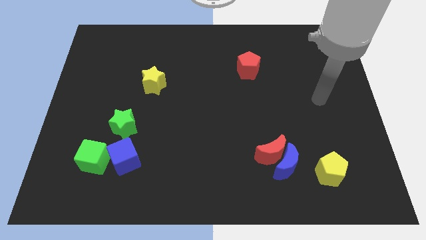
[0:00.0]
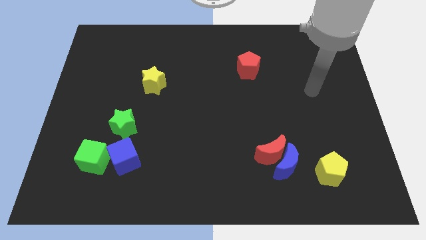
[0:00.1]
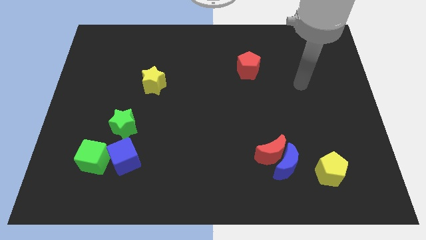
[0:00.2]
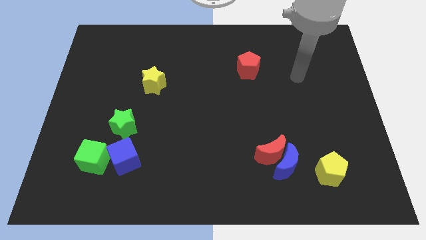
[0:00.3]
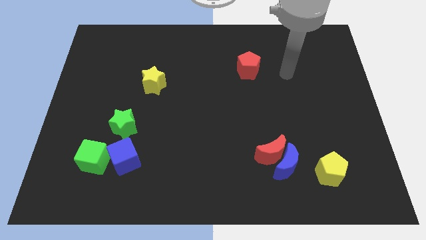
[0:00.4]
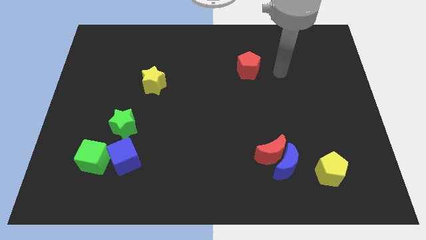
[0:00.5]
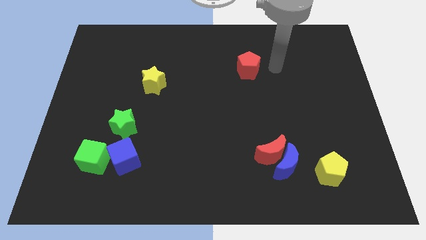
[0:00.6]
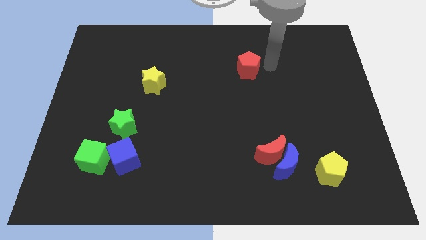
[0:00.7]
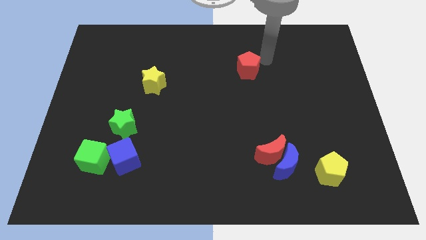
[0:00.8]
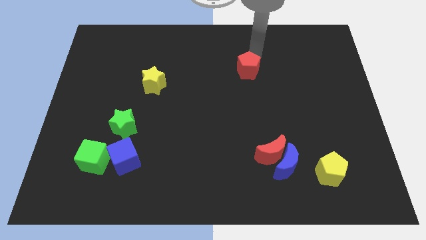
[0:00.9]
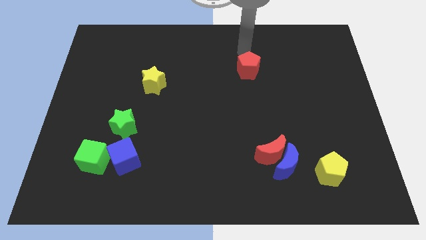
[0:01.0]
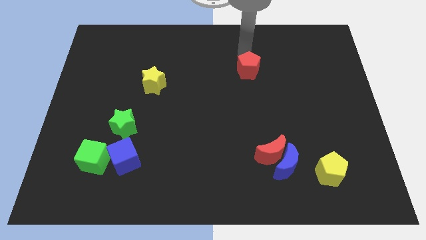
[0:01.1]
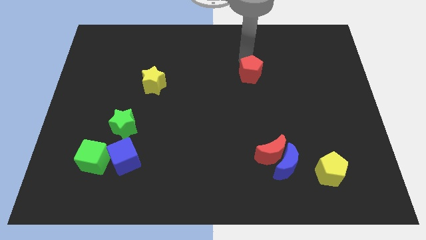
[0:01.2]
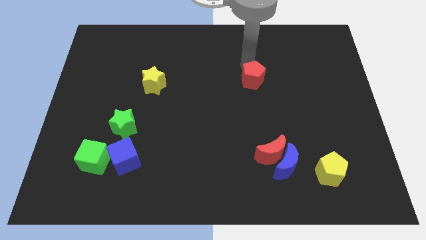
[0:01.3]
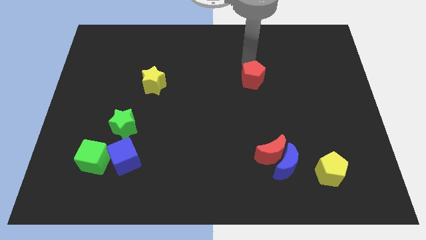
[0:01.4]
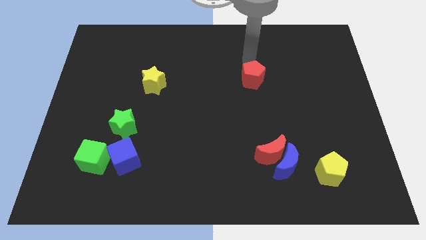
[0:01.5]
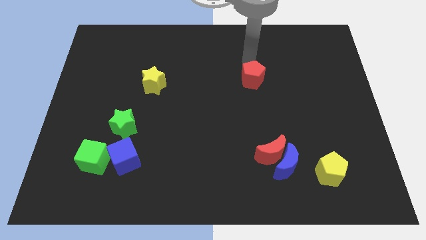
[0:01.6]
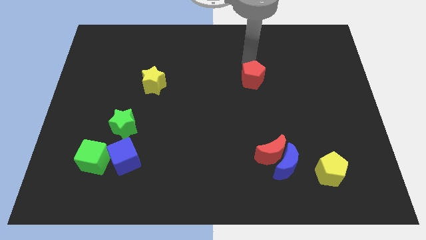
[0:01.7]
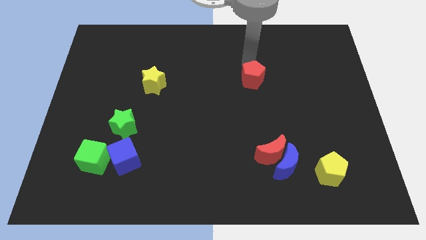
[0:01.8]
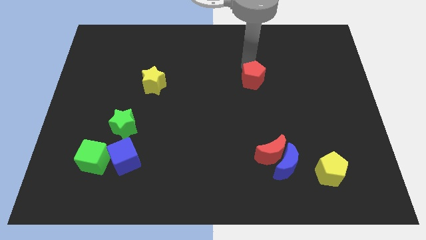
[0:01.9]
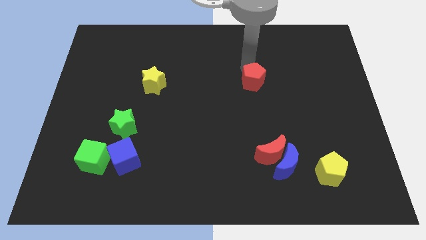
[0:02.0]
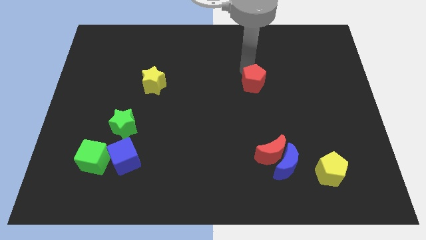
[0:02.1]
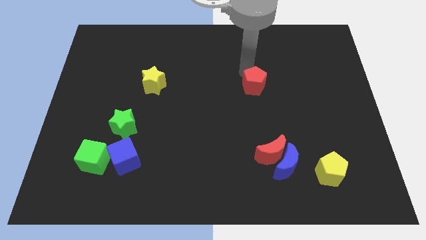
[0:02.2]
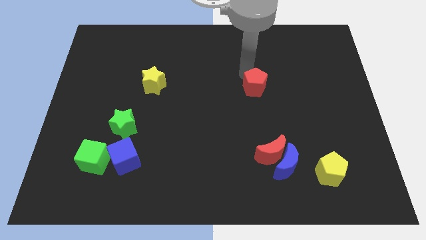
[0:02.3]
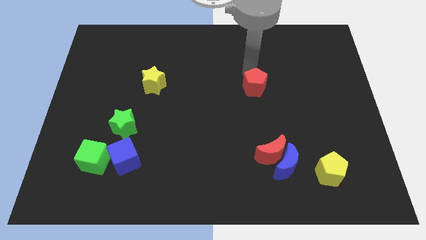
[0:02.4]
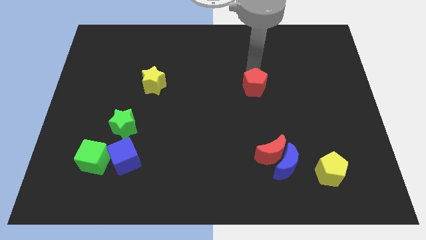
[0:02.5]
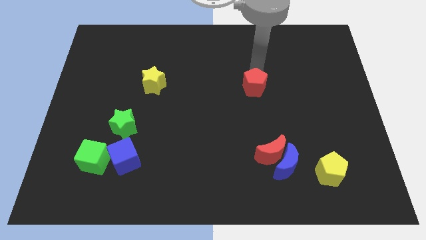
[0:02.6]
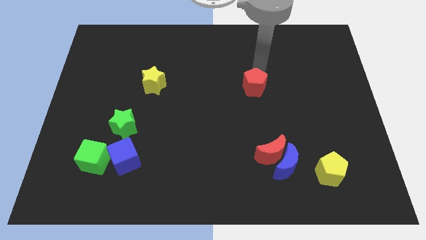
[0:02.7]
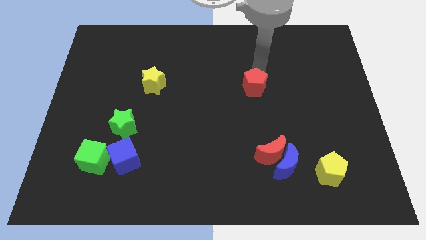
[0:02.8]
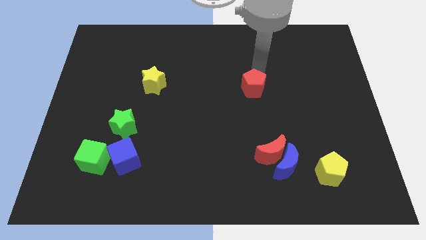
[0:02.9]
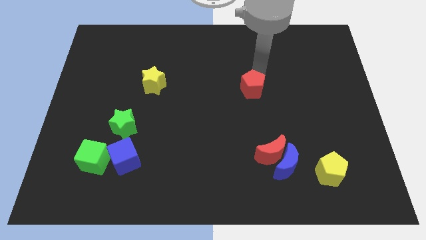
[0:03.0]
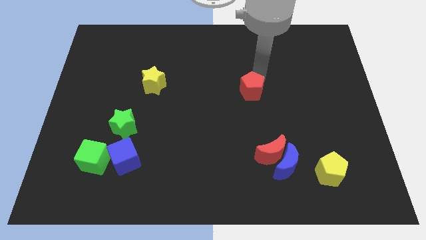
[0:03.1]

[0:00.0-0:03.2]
slide the red pentagon a bit downwards

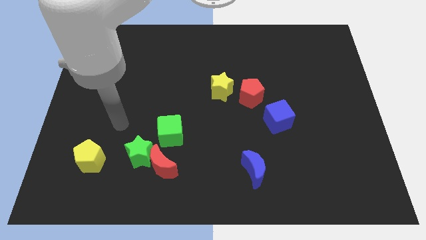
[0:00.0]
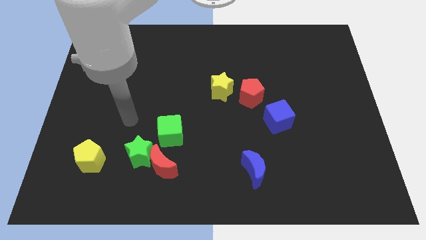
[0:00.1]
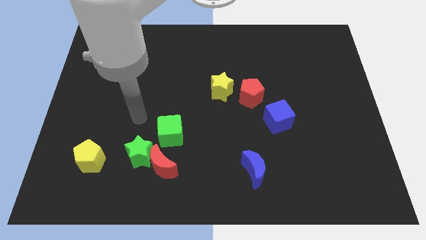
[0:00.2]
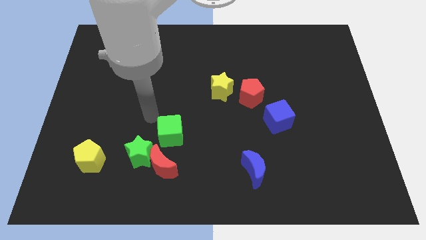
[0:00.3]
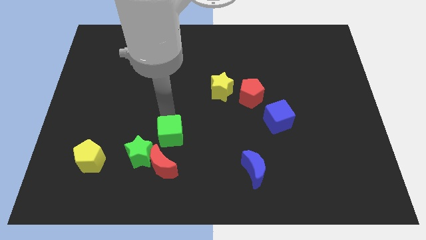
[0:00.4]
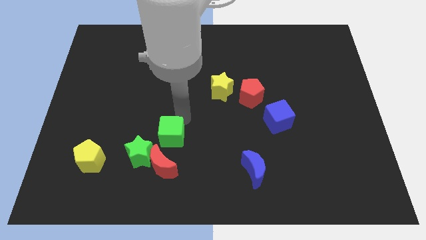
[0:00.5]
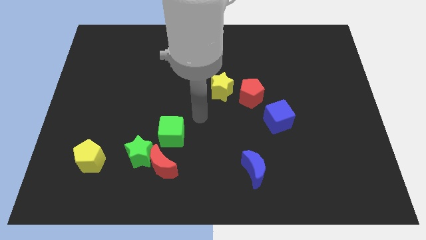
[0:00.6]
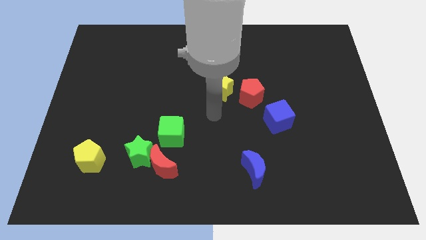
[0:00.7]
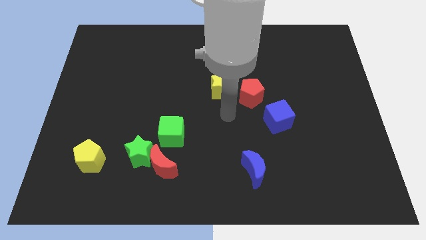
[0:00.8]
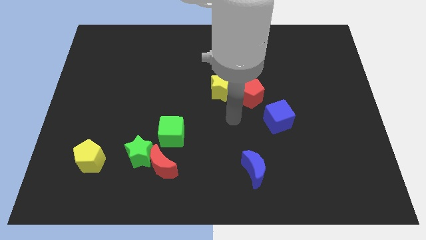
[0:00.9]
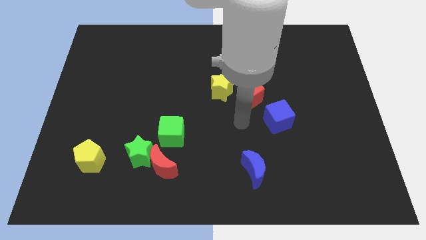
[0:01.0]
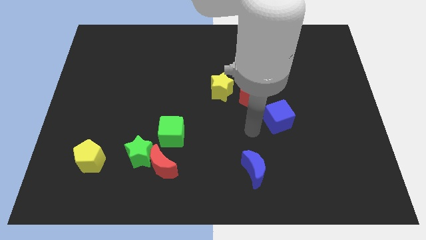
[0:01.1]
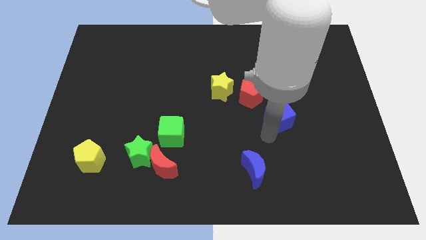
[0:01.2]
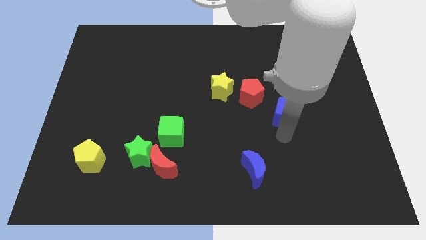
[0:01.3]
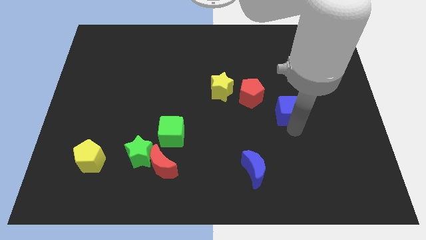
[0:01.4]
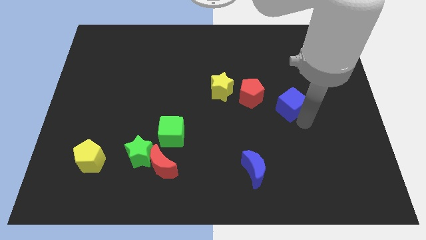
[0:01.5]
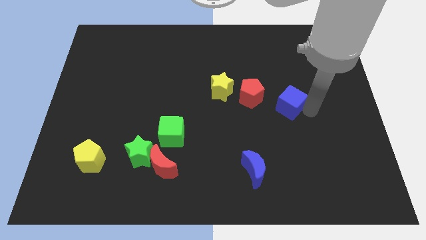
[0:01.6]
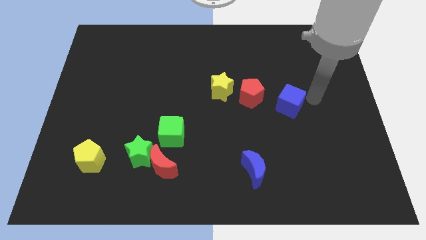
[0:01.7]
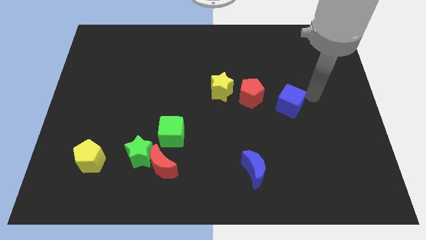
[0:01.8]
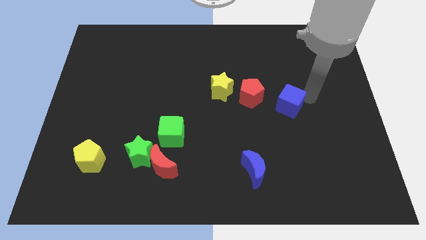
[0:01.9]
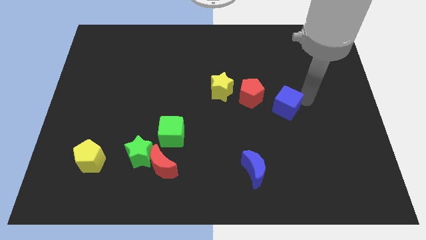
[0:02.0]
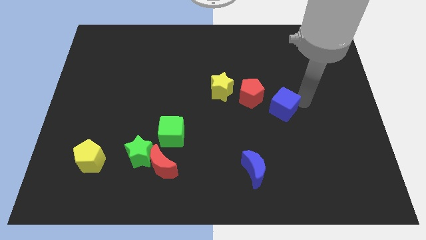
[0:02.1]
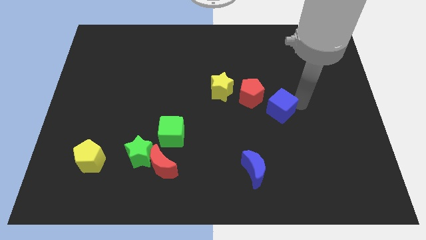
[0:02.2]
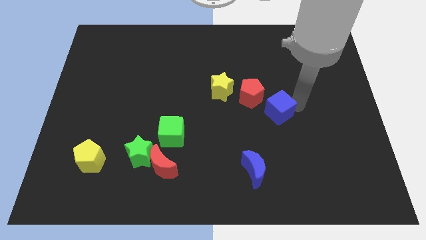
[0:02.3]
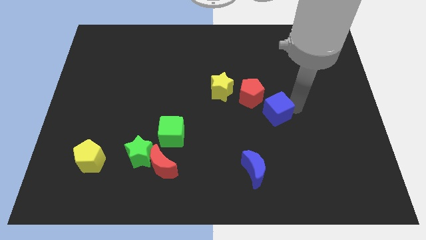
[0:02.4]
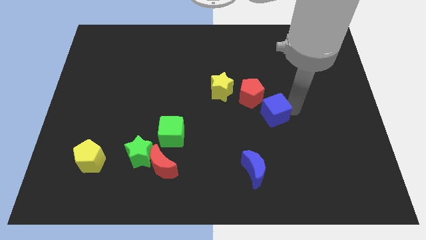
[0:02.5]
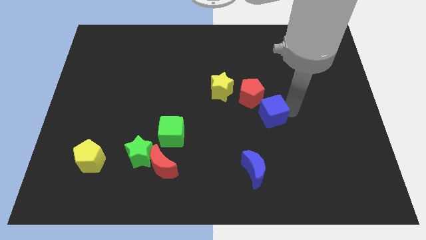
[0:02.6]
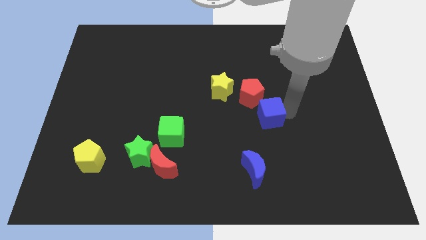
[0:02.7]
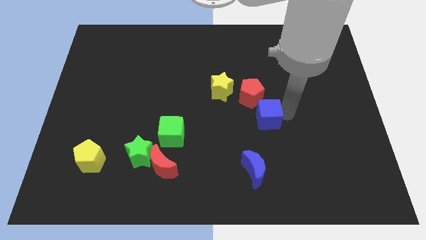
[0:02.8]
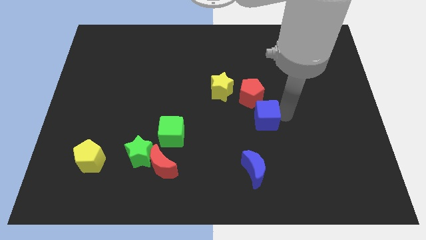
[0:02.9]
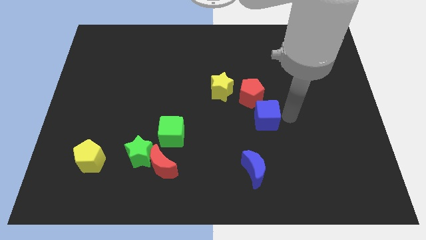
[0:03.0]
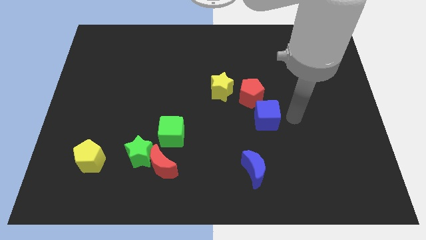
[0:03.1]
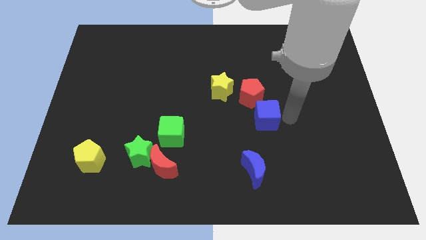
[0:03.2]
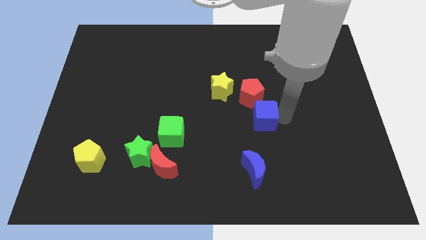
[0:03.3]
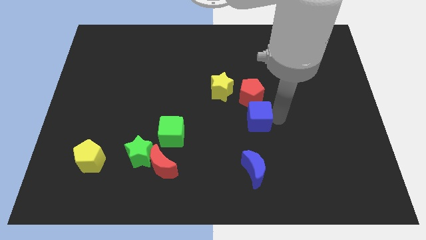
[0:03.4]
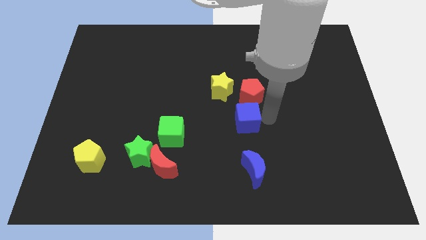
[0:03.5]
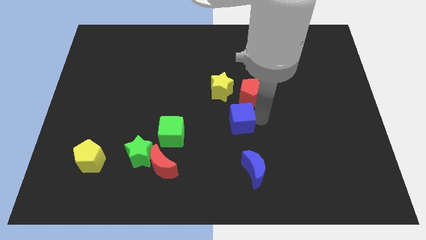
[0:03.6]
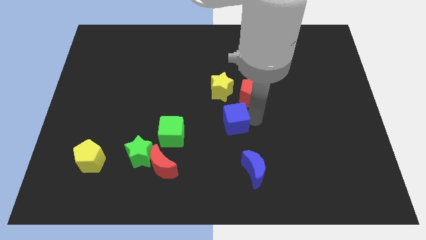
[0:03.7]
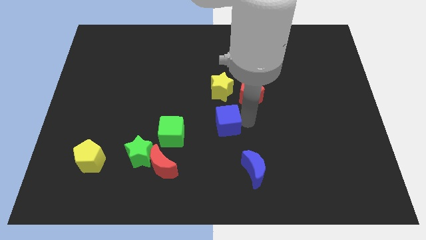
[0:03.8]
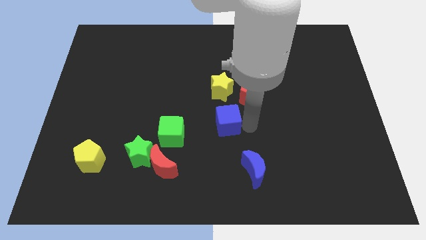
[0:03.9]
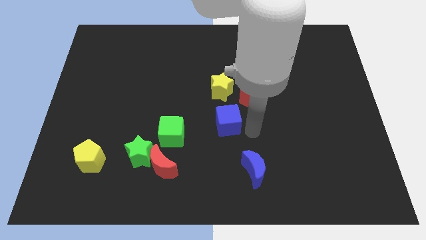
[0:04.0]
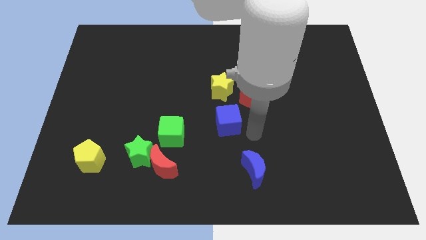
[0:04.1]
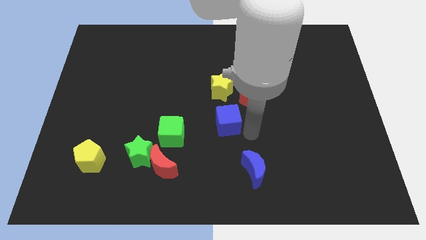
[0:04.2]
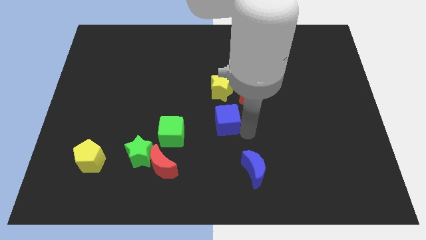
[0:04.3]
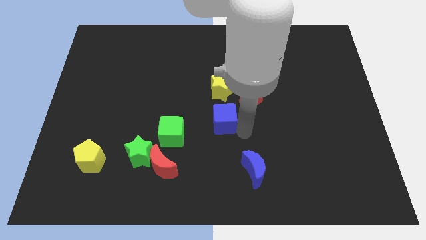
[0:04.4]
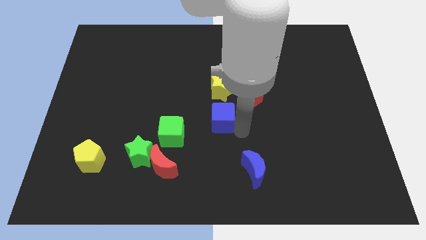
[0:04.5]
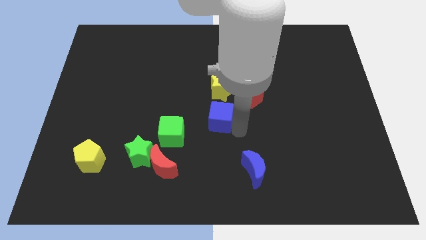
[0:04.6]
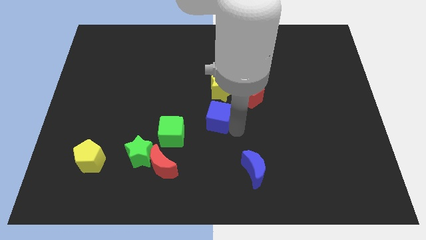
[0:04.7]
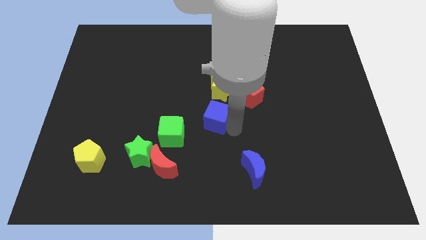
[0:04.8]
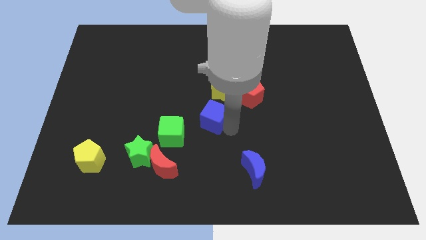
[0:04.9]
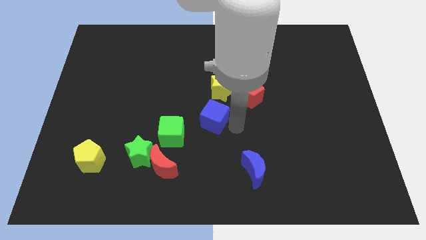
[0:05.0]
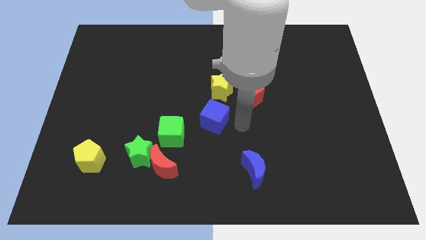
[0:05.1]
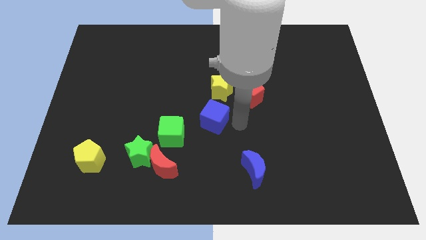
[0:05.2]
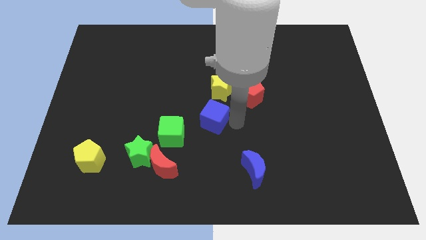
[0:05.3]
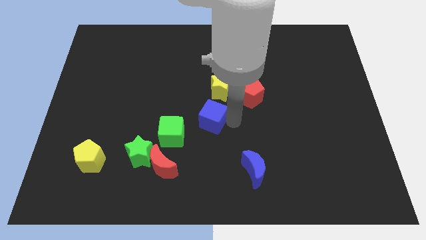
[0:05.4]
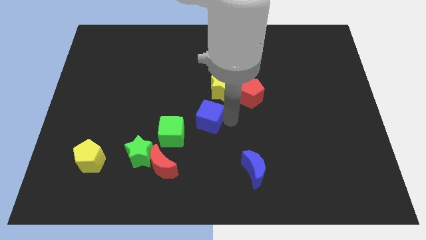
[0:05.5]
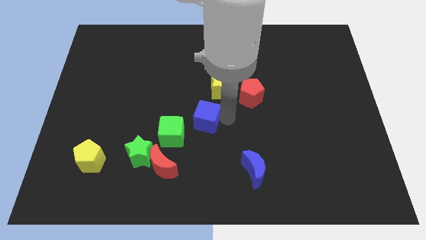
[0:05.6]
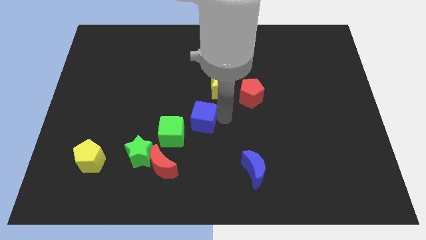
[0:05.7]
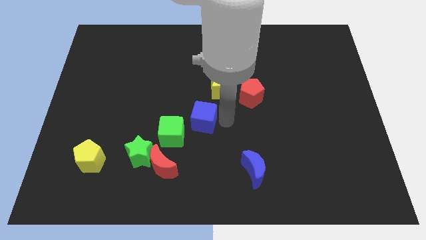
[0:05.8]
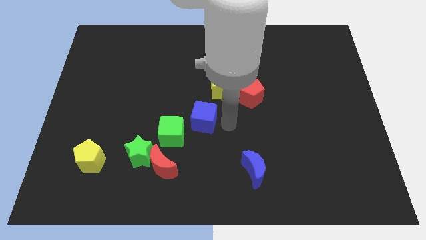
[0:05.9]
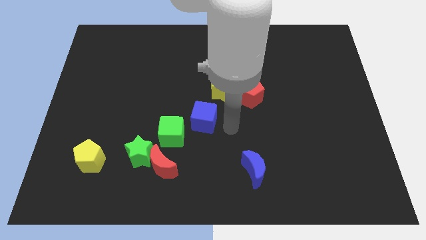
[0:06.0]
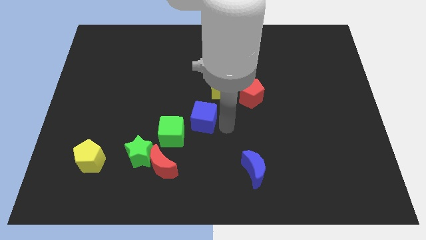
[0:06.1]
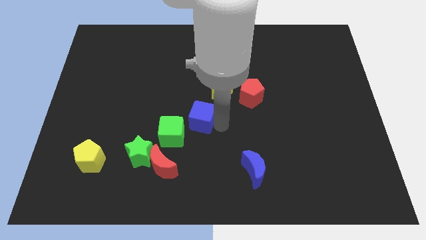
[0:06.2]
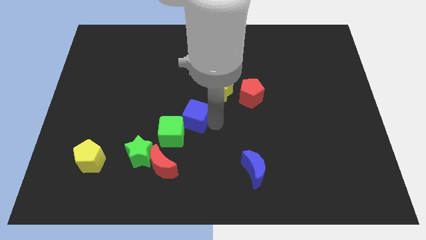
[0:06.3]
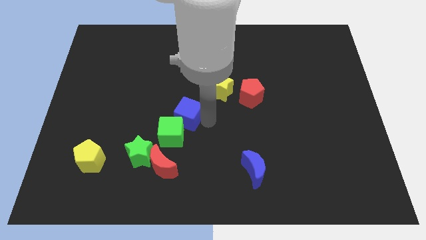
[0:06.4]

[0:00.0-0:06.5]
move the blue cube to the left
